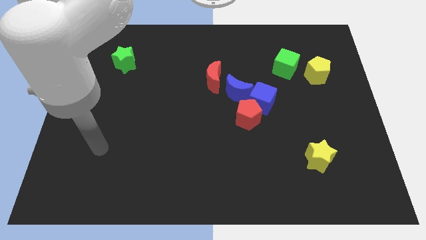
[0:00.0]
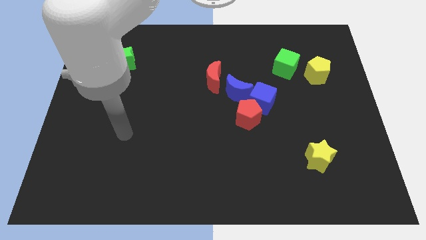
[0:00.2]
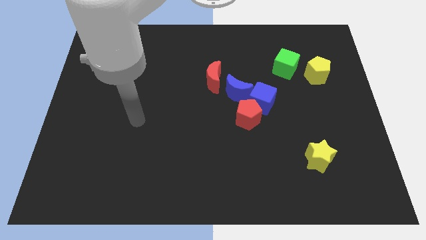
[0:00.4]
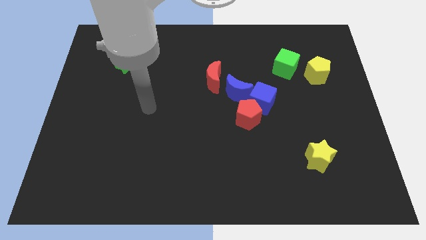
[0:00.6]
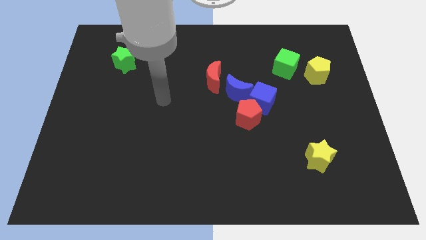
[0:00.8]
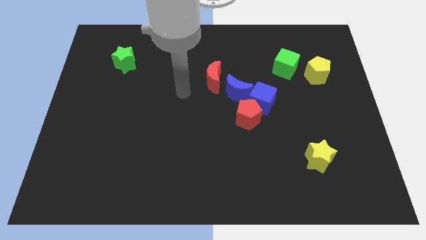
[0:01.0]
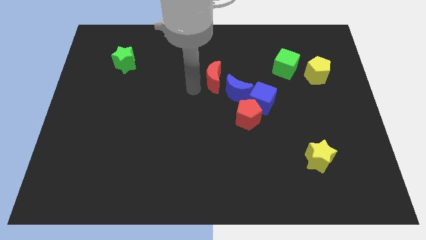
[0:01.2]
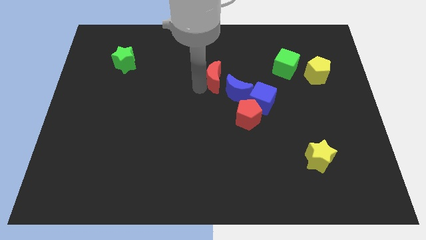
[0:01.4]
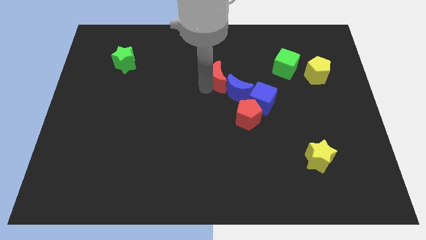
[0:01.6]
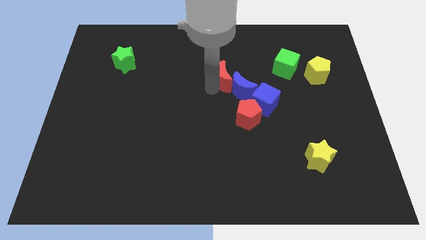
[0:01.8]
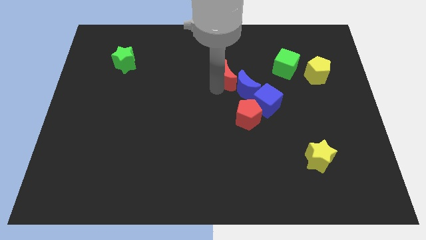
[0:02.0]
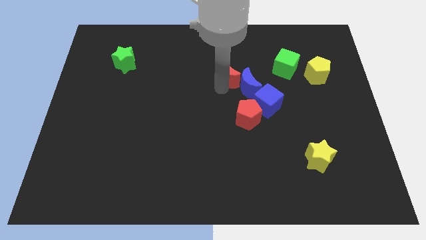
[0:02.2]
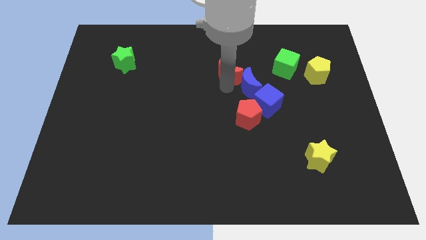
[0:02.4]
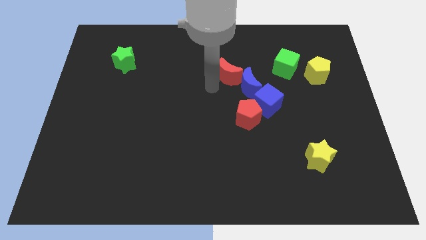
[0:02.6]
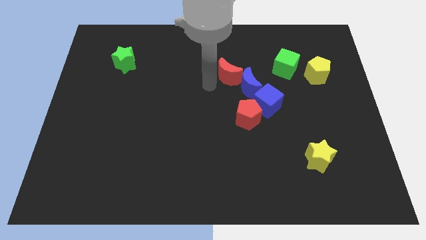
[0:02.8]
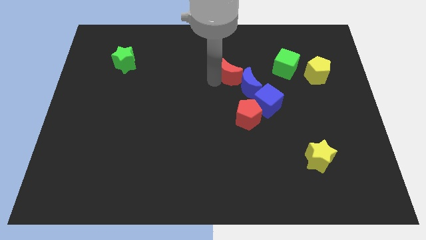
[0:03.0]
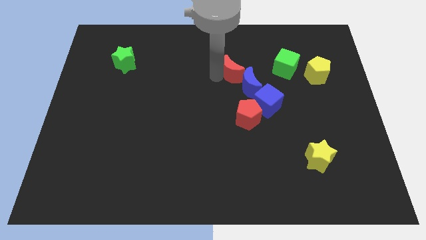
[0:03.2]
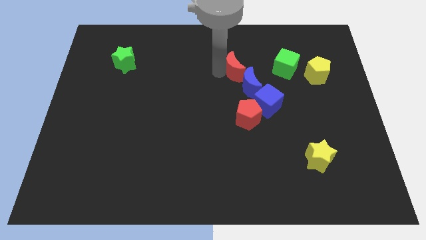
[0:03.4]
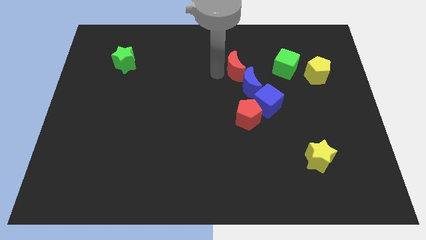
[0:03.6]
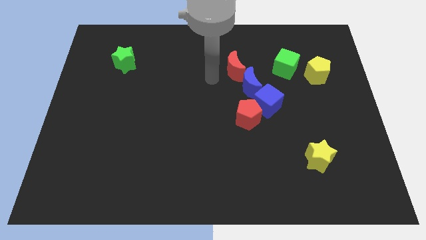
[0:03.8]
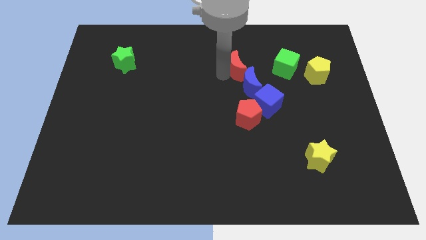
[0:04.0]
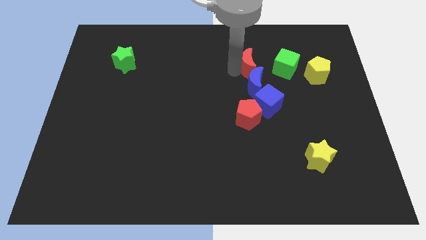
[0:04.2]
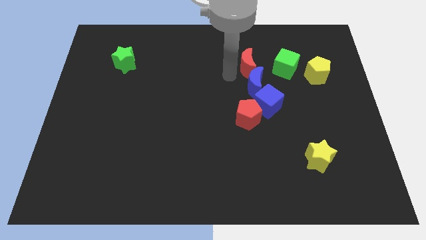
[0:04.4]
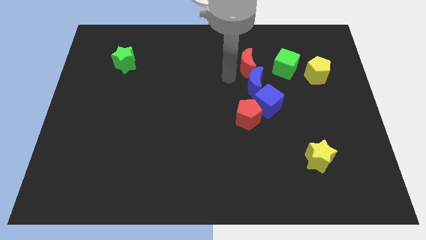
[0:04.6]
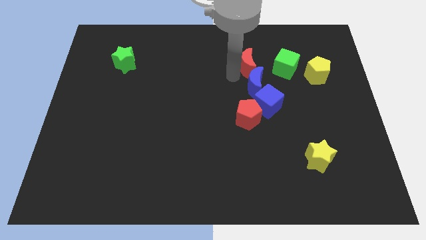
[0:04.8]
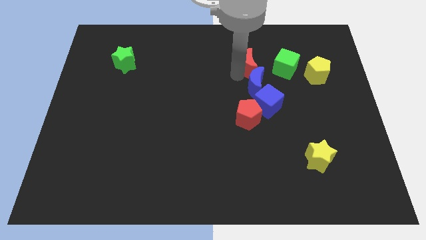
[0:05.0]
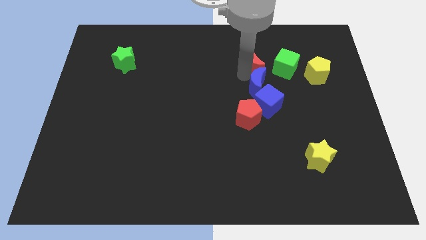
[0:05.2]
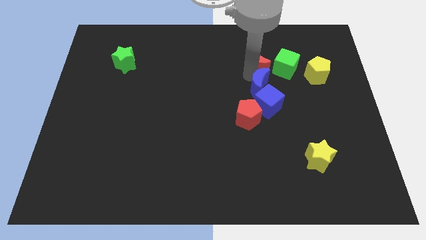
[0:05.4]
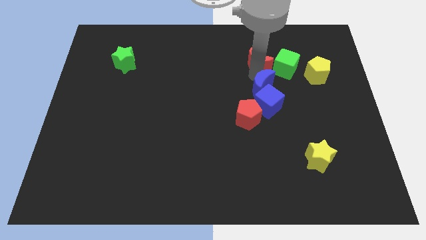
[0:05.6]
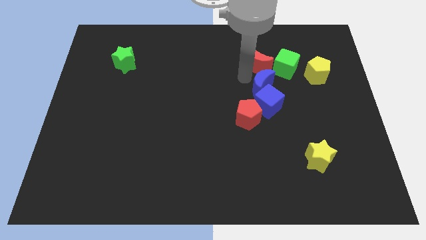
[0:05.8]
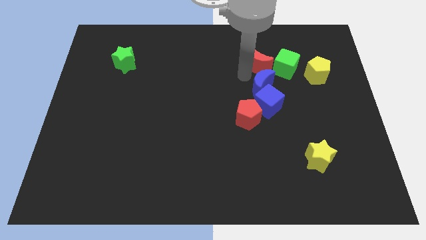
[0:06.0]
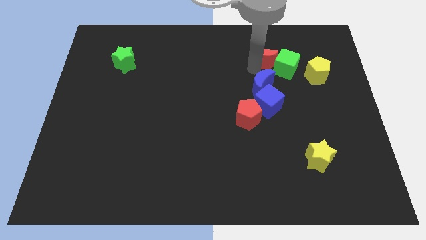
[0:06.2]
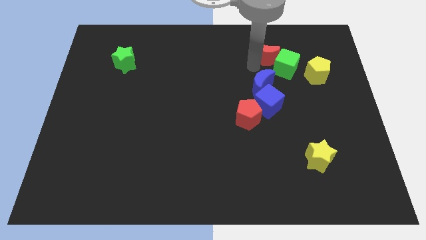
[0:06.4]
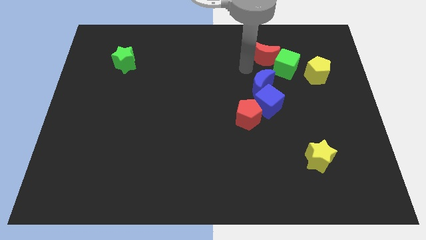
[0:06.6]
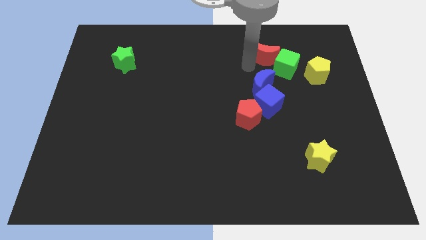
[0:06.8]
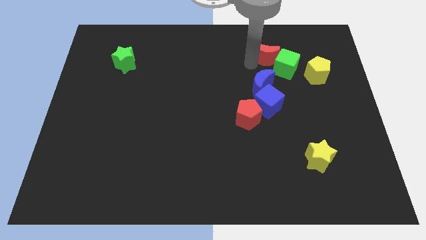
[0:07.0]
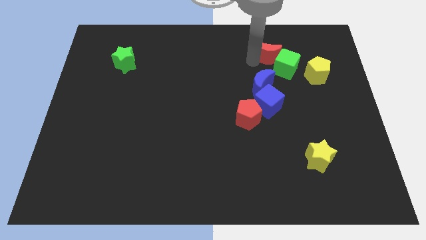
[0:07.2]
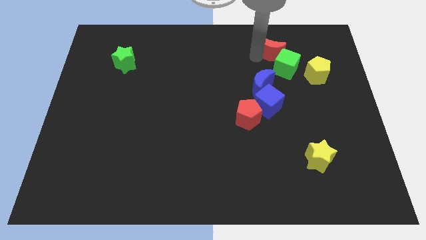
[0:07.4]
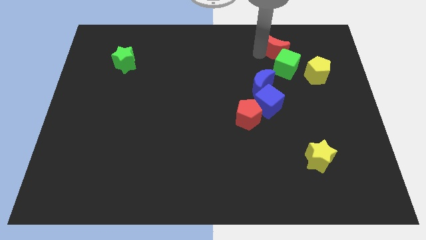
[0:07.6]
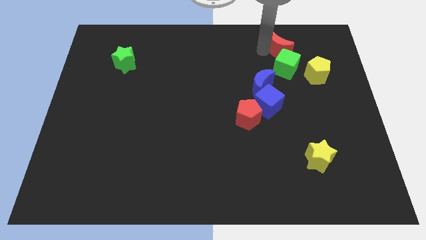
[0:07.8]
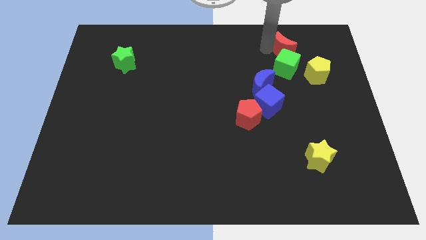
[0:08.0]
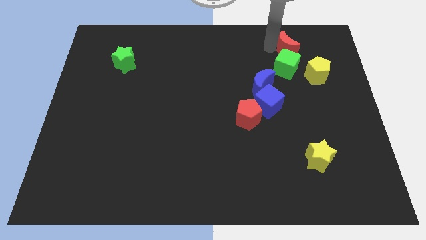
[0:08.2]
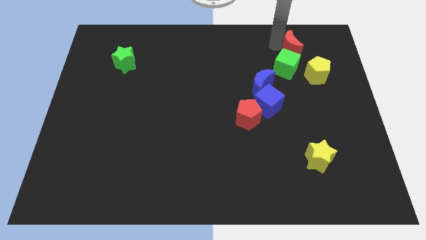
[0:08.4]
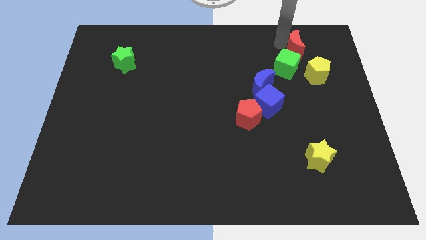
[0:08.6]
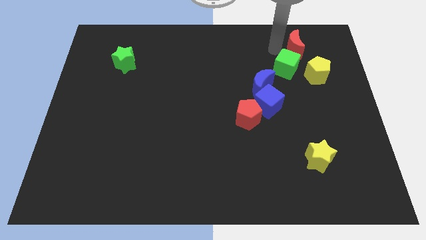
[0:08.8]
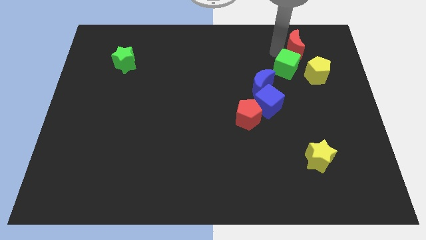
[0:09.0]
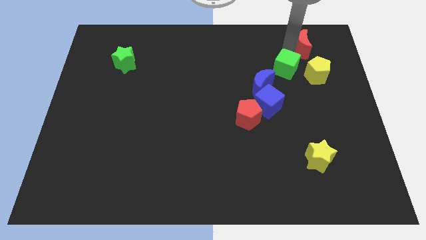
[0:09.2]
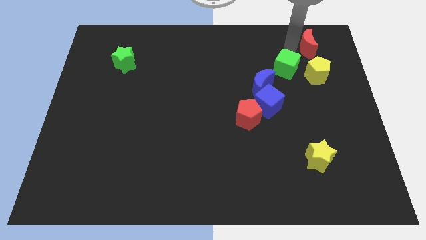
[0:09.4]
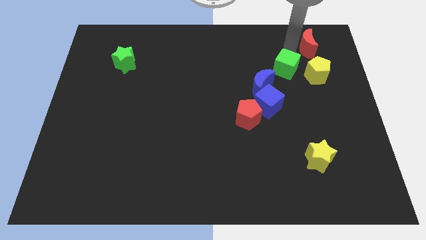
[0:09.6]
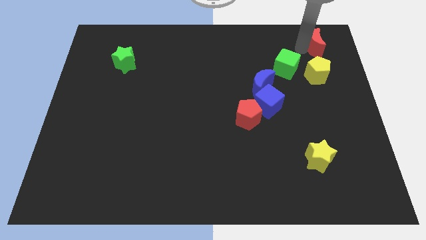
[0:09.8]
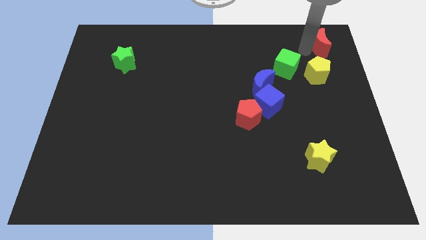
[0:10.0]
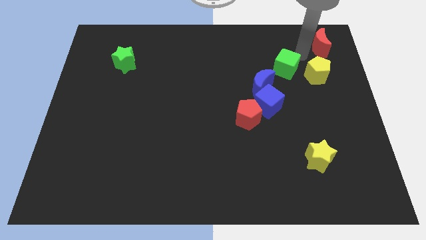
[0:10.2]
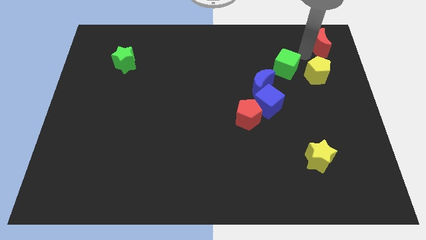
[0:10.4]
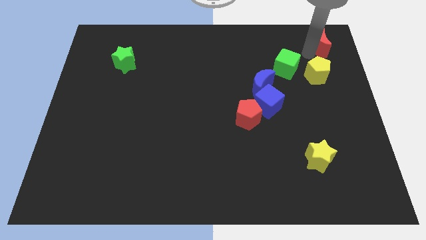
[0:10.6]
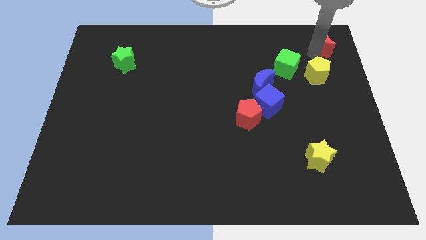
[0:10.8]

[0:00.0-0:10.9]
move the red moon to the upper right corner

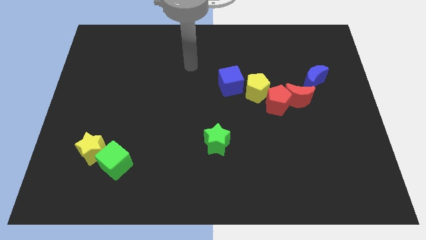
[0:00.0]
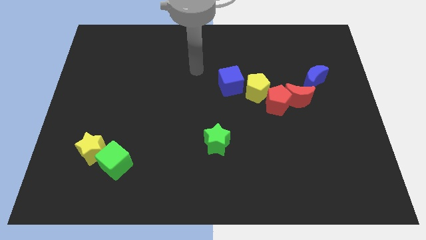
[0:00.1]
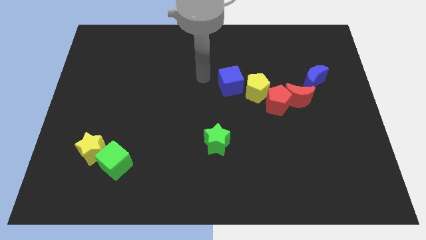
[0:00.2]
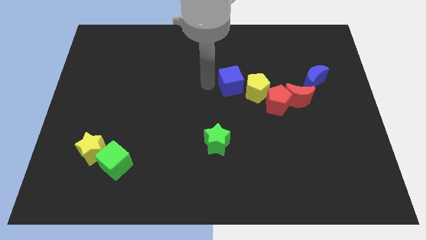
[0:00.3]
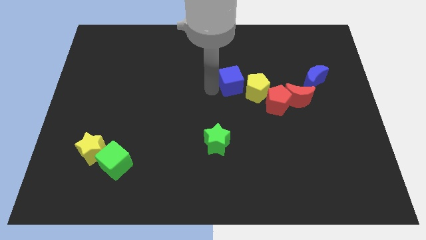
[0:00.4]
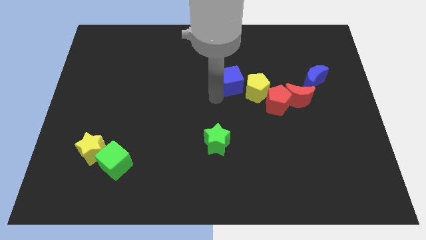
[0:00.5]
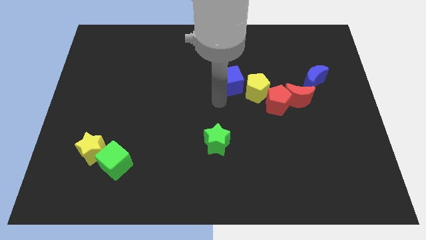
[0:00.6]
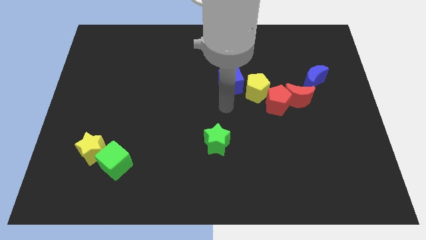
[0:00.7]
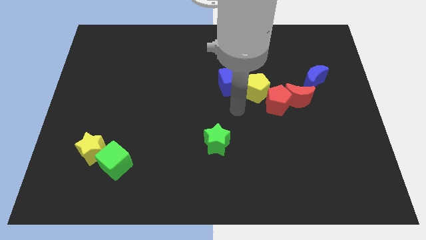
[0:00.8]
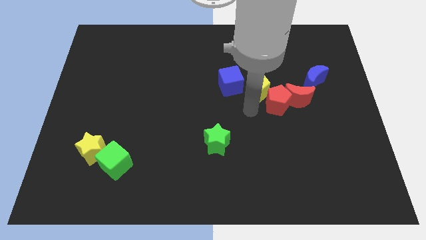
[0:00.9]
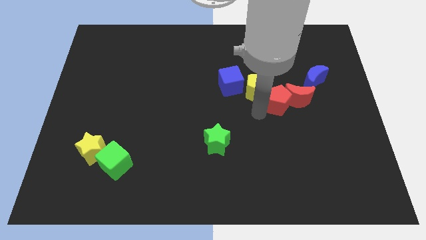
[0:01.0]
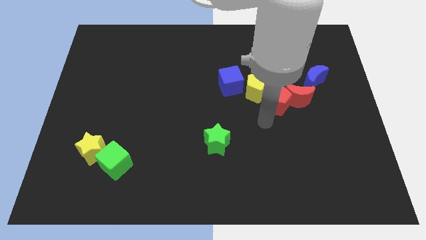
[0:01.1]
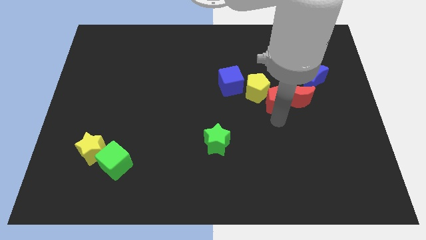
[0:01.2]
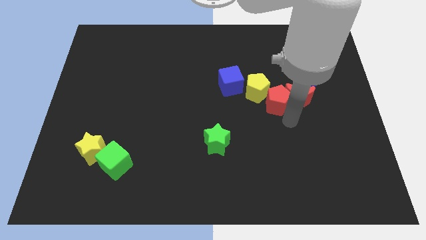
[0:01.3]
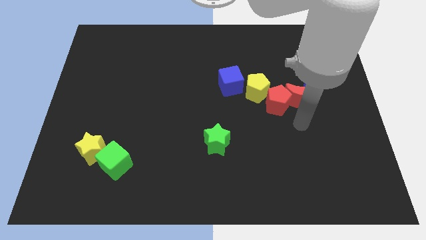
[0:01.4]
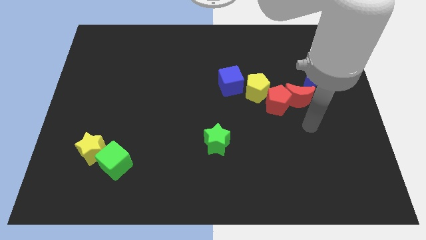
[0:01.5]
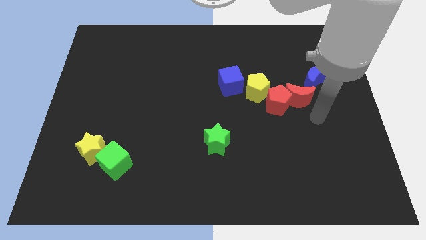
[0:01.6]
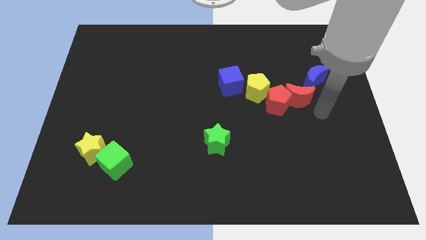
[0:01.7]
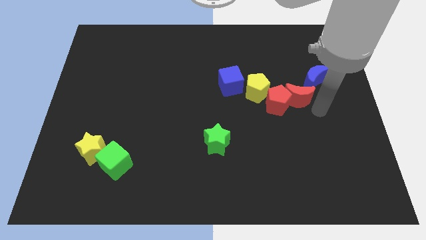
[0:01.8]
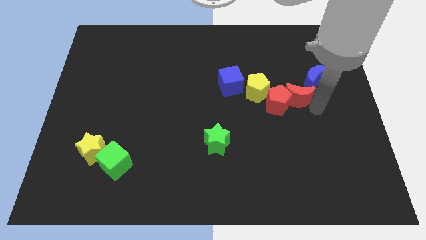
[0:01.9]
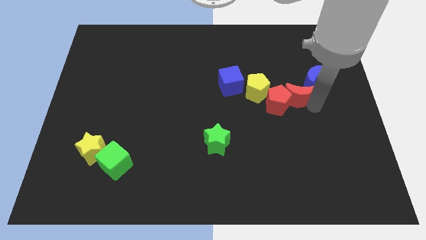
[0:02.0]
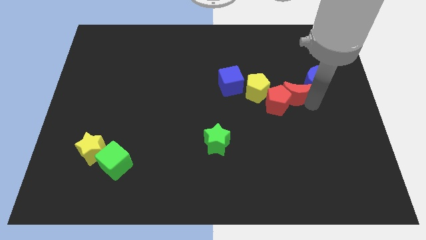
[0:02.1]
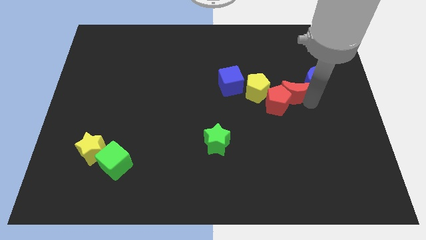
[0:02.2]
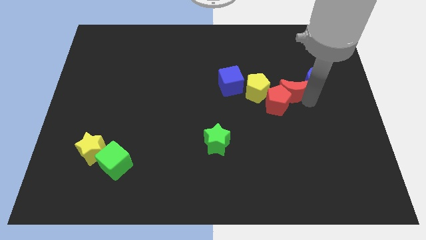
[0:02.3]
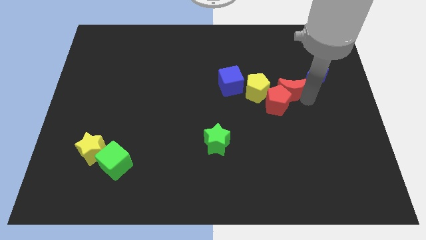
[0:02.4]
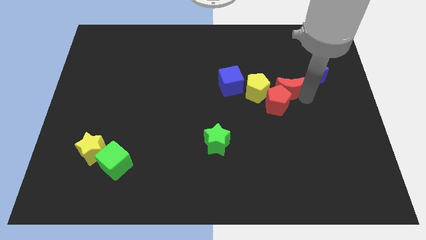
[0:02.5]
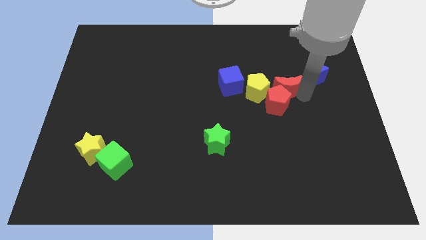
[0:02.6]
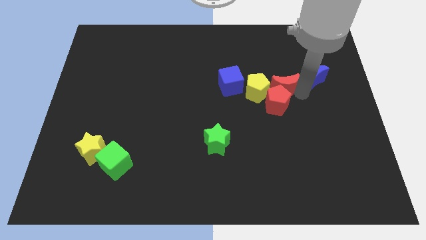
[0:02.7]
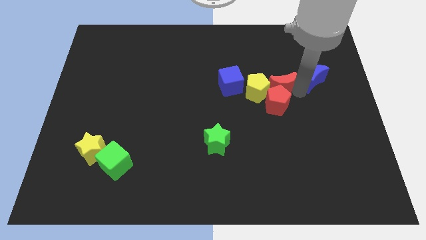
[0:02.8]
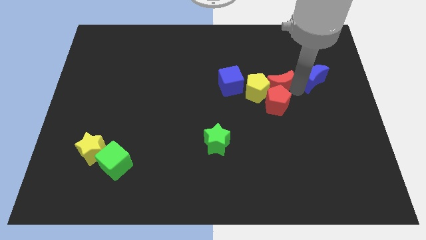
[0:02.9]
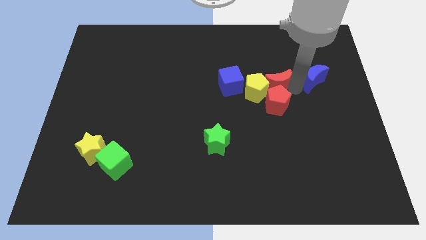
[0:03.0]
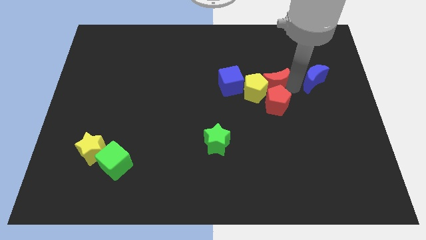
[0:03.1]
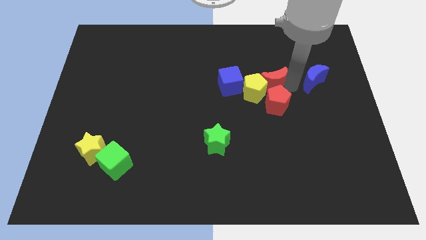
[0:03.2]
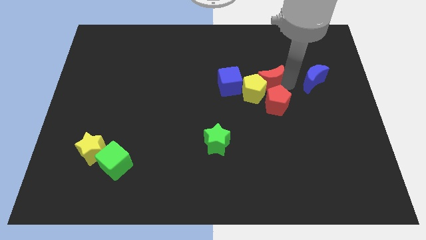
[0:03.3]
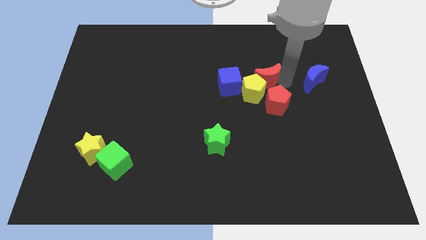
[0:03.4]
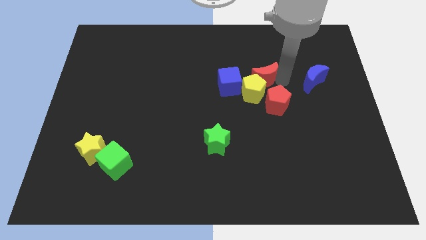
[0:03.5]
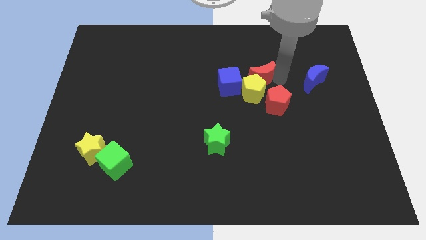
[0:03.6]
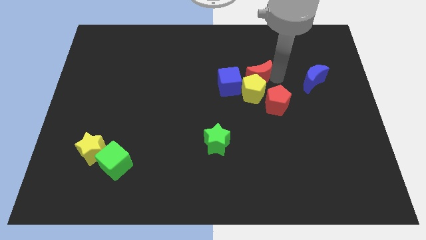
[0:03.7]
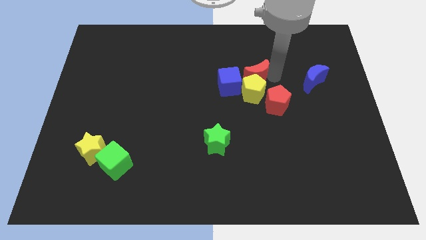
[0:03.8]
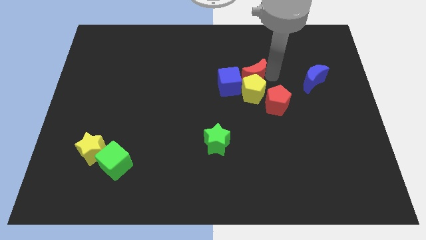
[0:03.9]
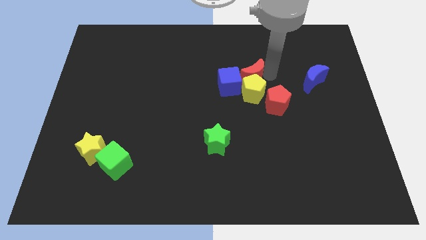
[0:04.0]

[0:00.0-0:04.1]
push the red moon to the middle of the board
